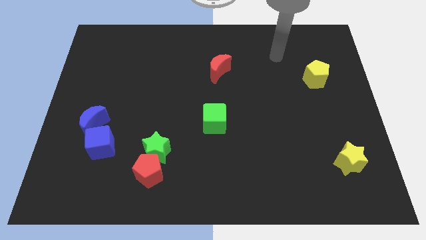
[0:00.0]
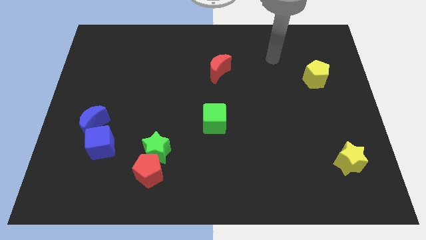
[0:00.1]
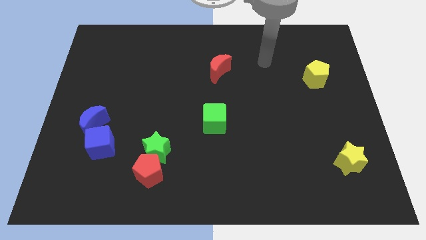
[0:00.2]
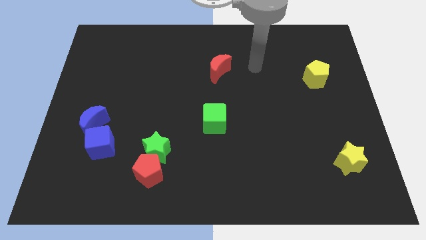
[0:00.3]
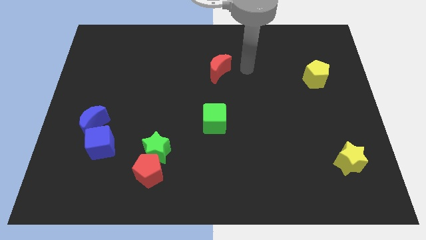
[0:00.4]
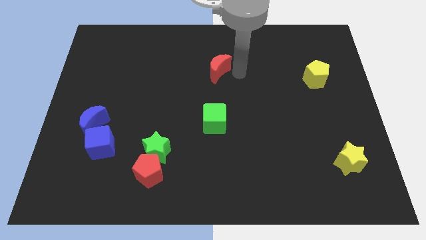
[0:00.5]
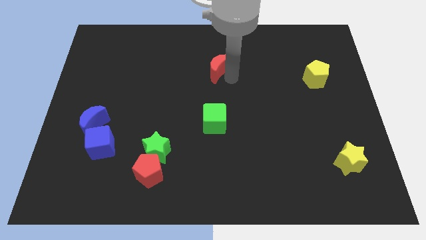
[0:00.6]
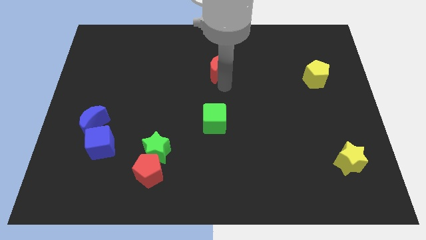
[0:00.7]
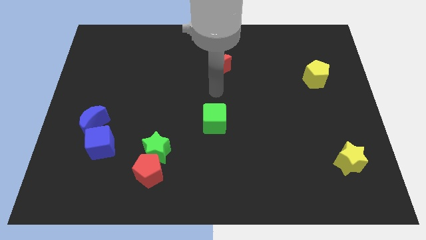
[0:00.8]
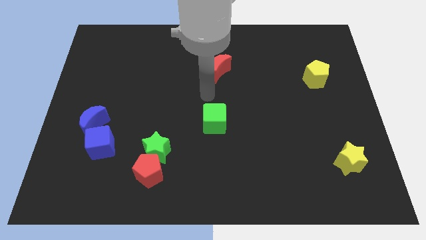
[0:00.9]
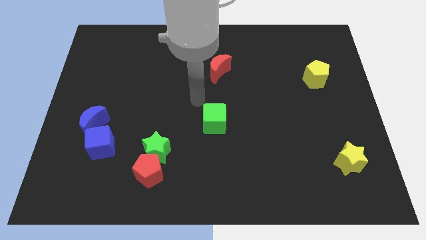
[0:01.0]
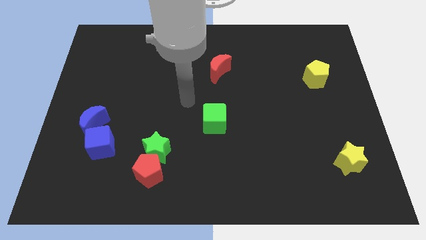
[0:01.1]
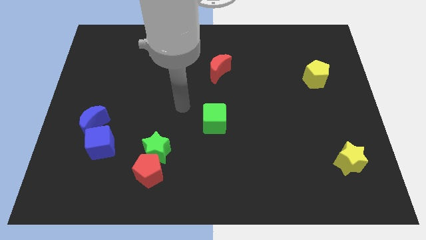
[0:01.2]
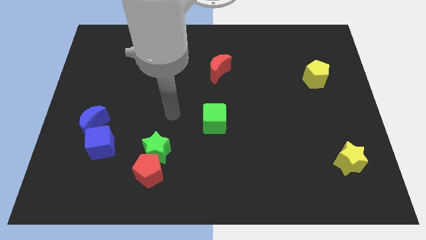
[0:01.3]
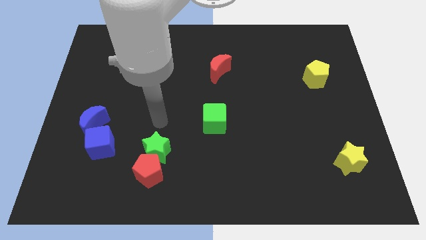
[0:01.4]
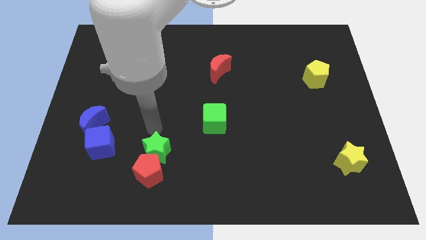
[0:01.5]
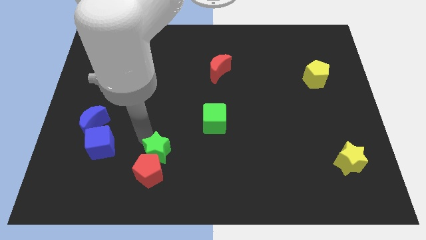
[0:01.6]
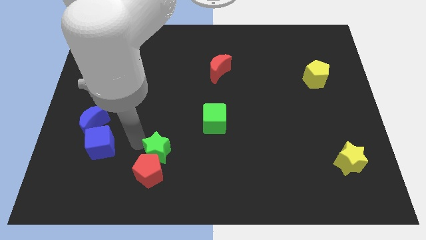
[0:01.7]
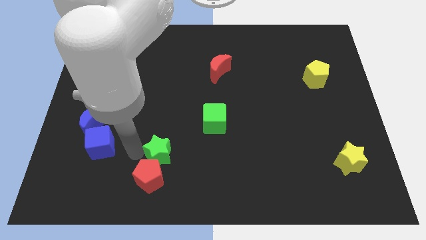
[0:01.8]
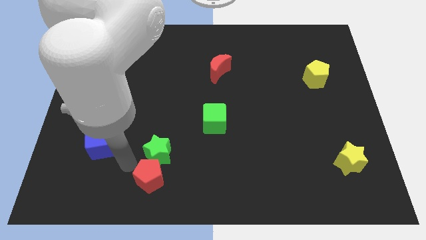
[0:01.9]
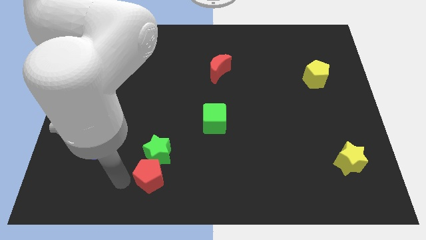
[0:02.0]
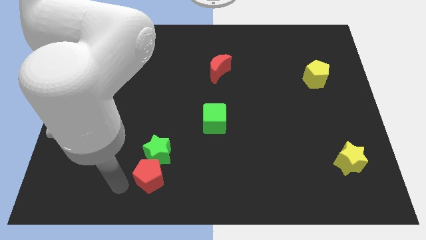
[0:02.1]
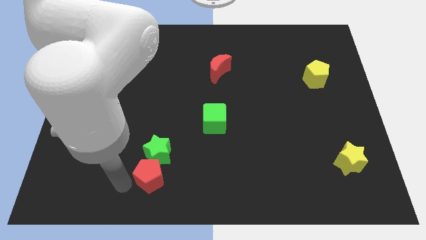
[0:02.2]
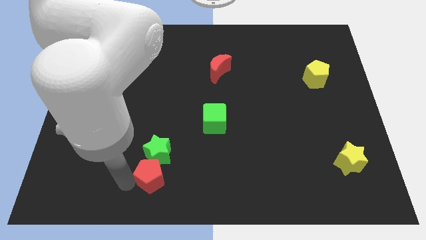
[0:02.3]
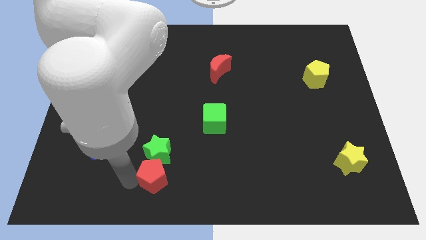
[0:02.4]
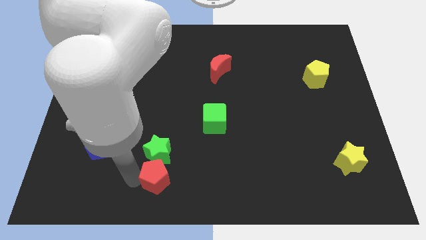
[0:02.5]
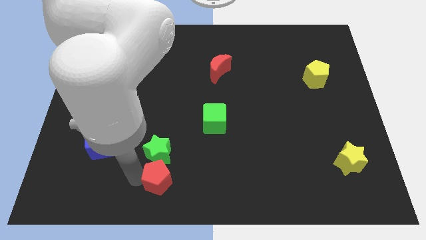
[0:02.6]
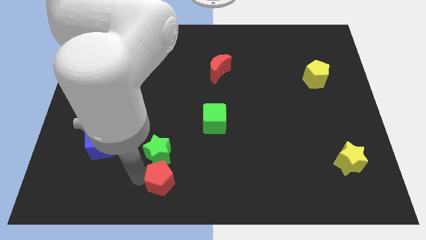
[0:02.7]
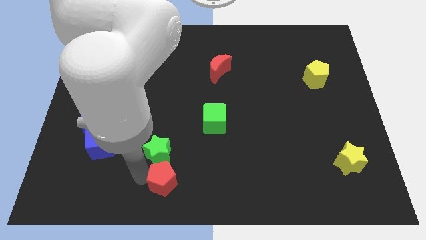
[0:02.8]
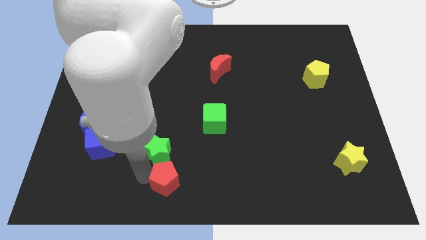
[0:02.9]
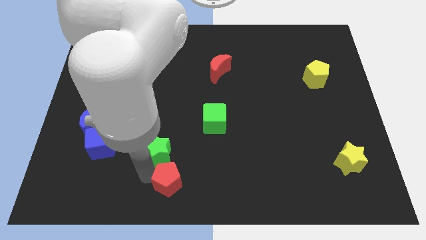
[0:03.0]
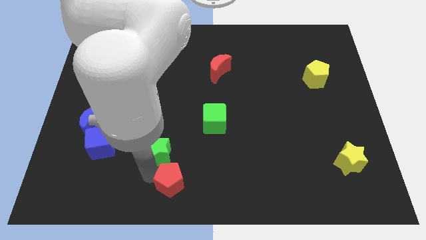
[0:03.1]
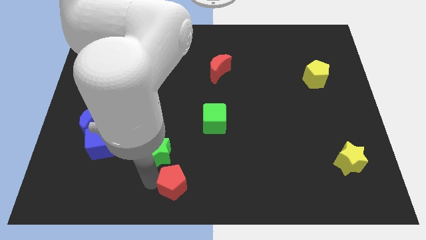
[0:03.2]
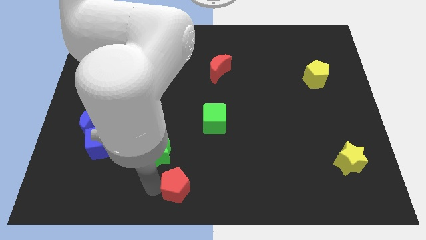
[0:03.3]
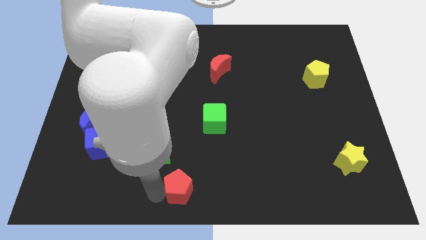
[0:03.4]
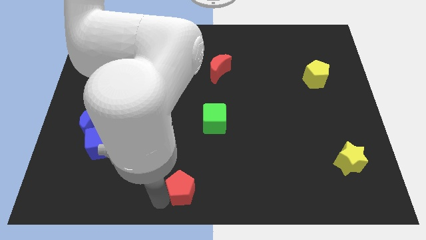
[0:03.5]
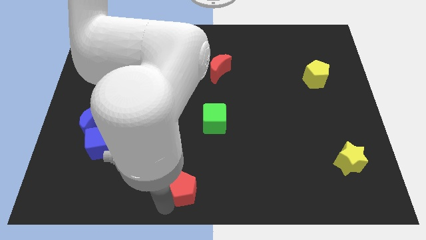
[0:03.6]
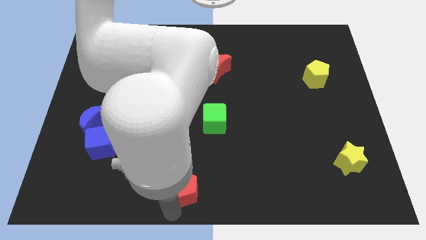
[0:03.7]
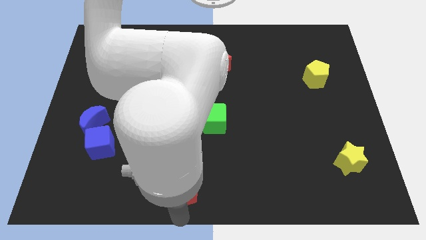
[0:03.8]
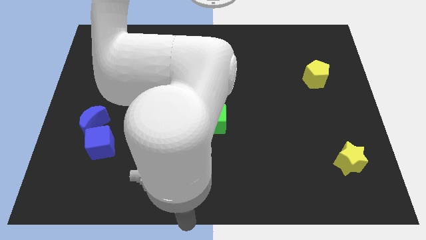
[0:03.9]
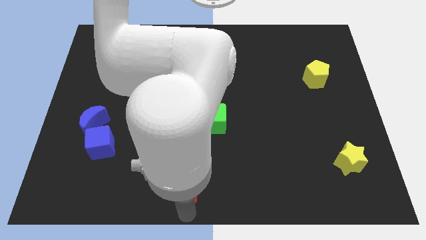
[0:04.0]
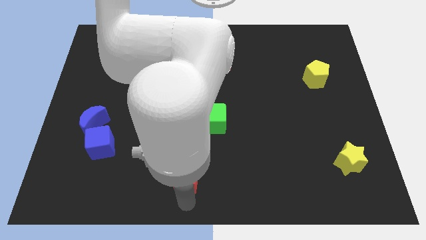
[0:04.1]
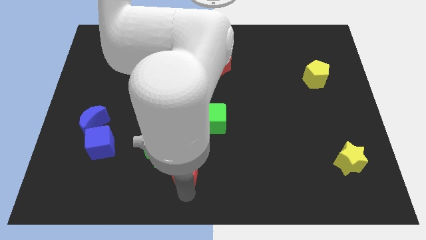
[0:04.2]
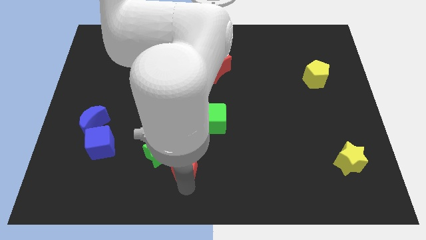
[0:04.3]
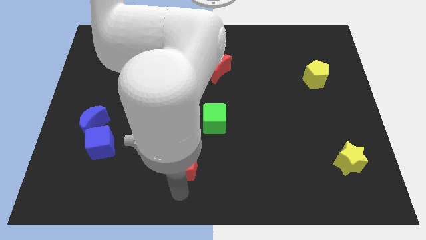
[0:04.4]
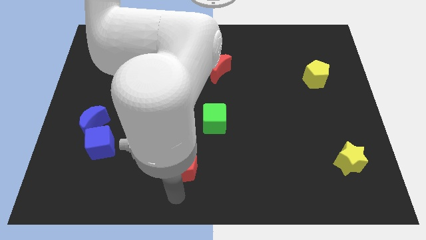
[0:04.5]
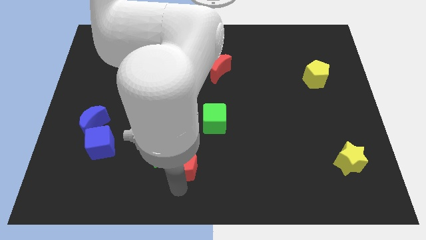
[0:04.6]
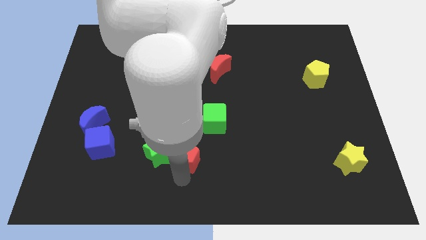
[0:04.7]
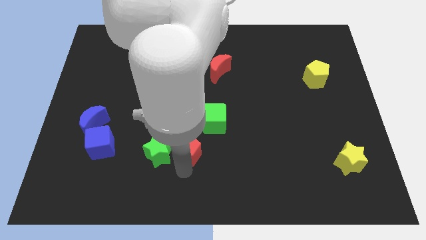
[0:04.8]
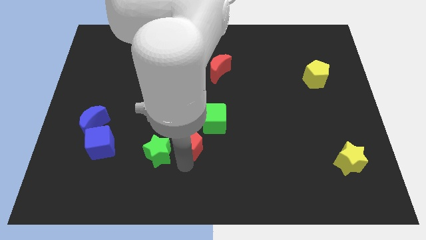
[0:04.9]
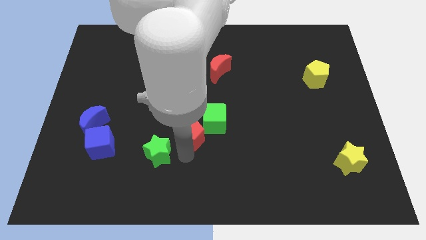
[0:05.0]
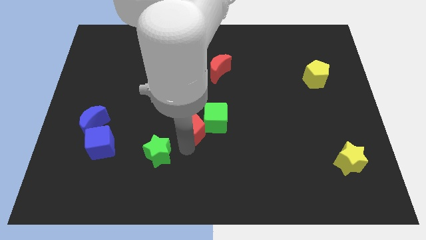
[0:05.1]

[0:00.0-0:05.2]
push the red pentagon towards the green cube

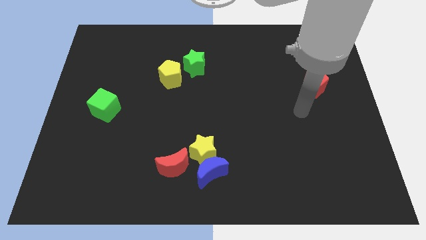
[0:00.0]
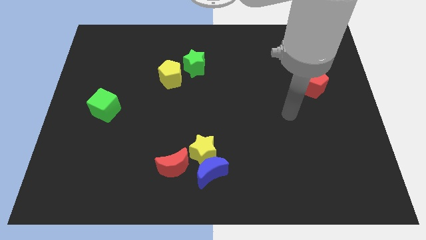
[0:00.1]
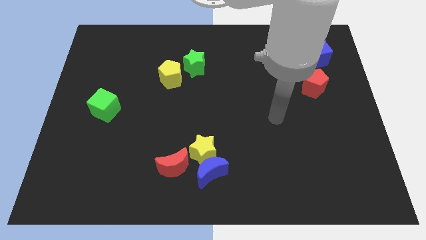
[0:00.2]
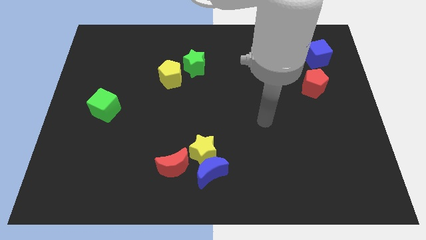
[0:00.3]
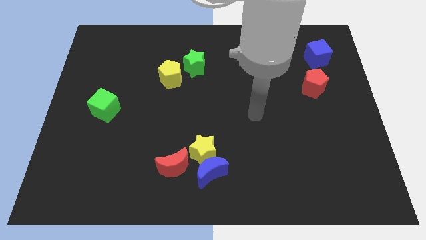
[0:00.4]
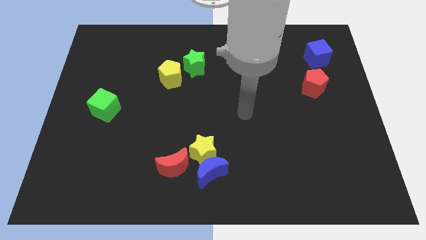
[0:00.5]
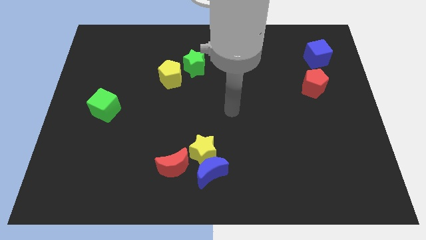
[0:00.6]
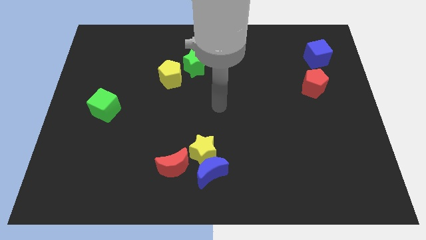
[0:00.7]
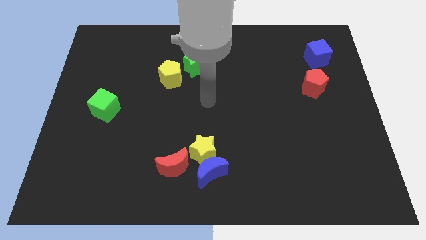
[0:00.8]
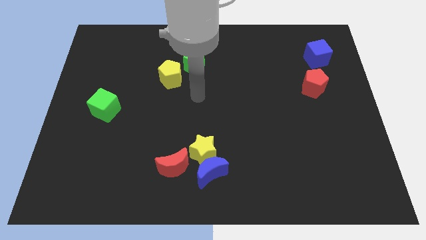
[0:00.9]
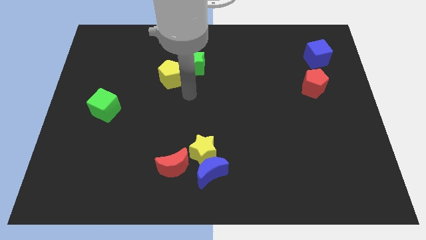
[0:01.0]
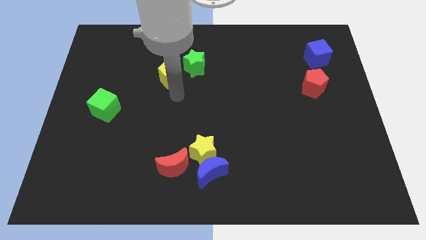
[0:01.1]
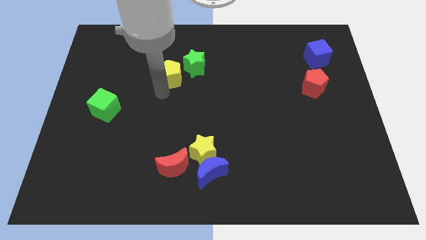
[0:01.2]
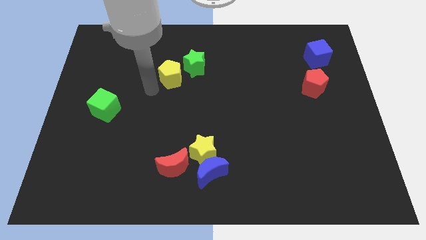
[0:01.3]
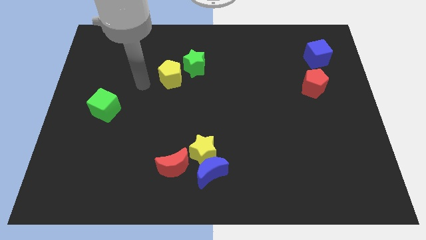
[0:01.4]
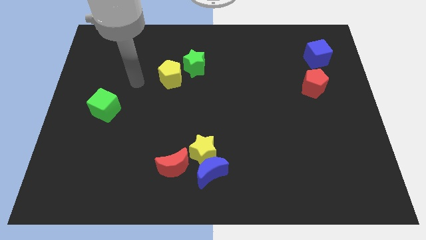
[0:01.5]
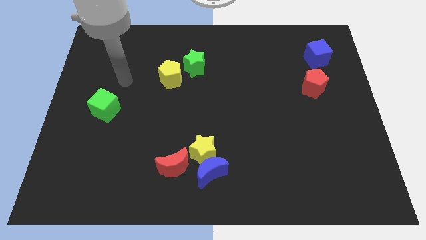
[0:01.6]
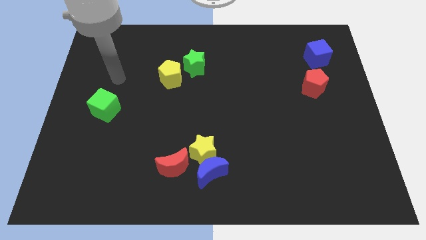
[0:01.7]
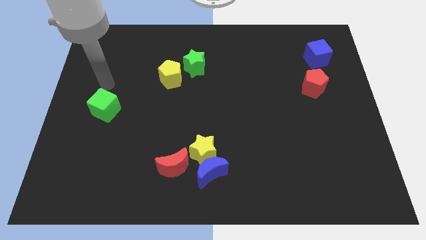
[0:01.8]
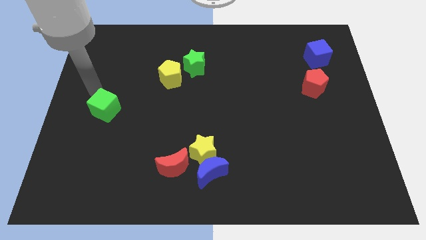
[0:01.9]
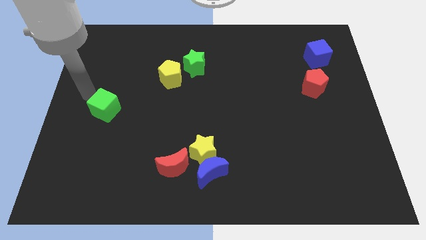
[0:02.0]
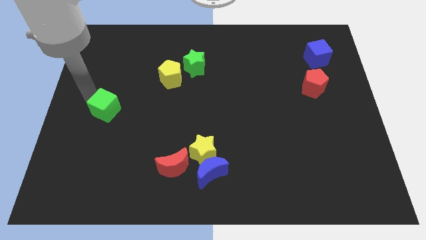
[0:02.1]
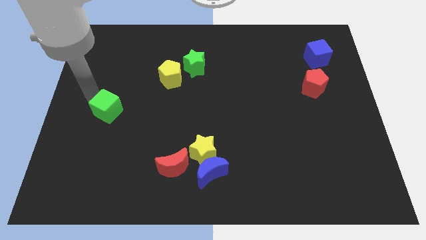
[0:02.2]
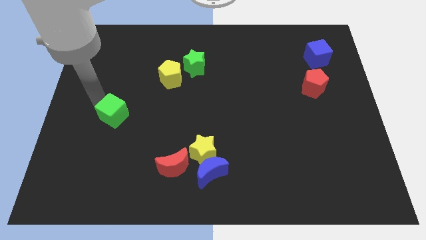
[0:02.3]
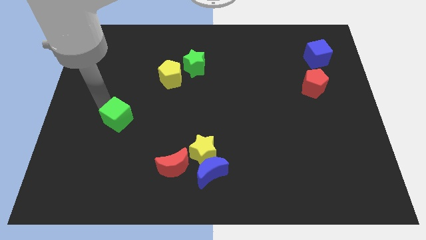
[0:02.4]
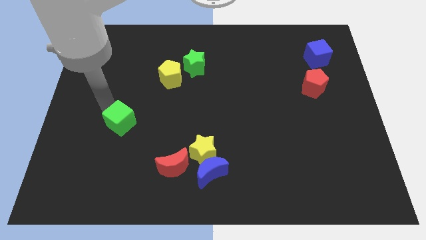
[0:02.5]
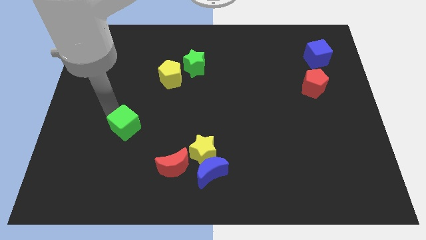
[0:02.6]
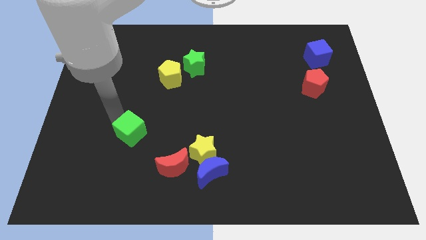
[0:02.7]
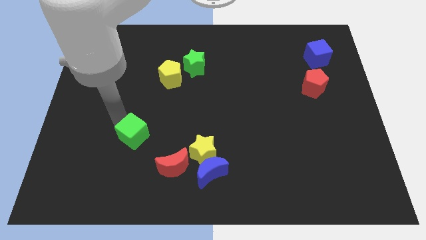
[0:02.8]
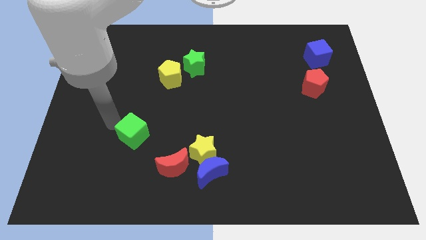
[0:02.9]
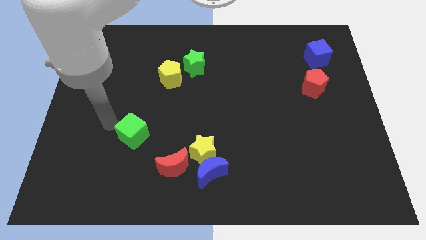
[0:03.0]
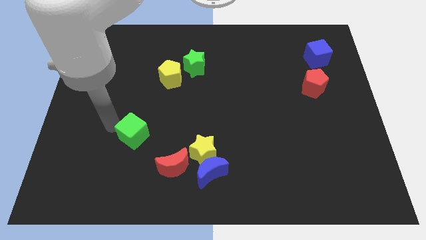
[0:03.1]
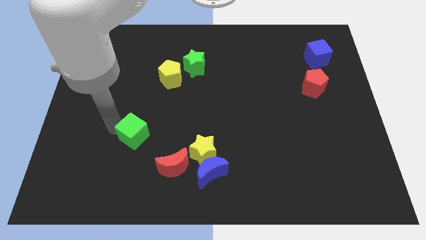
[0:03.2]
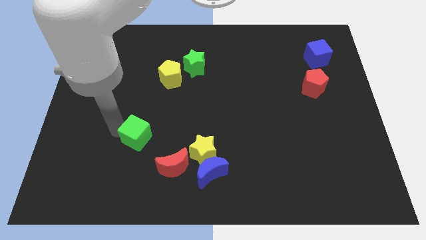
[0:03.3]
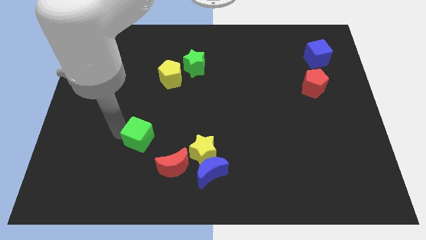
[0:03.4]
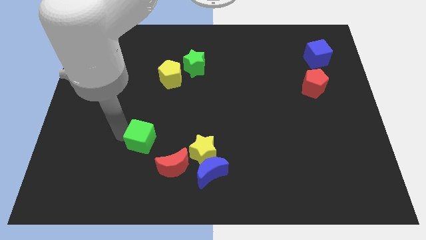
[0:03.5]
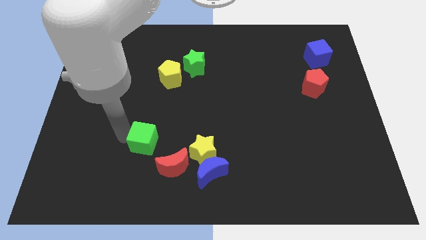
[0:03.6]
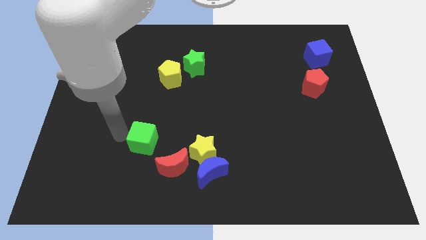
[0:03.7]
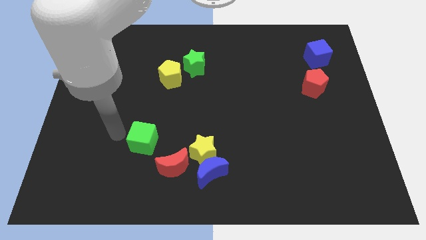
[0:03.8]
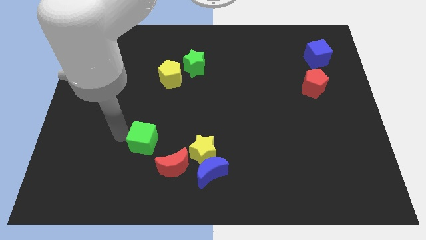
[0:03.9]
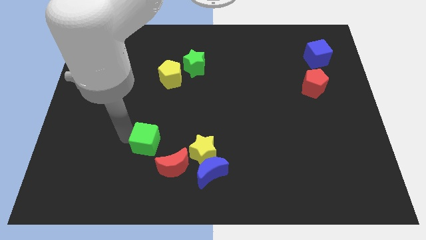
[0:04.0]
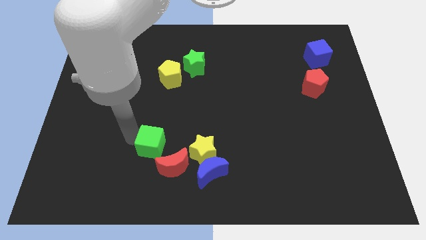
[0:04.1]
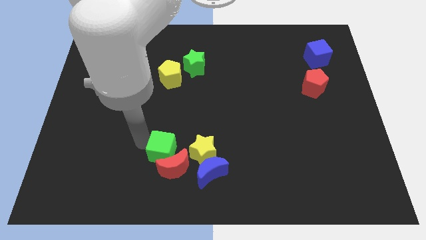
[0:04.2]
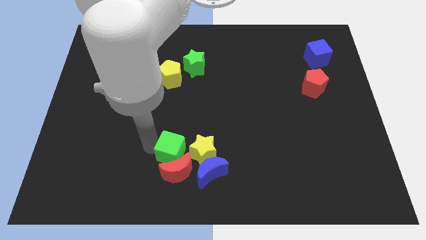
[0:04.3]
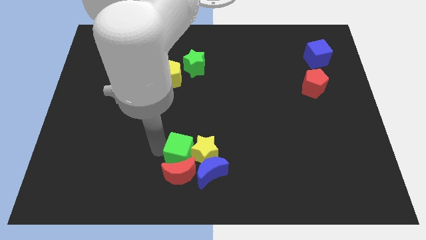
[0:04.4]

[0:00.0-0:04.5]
put the green cube towards the yellow star
